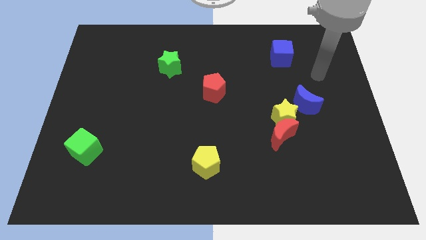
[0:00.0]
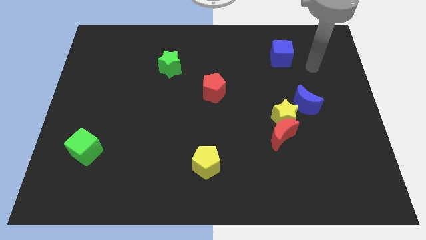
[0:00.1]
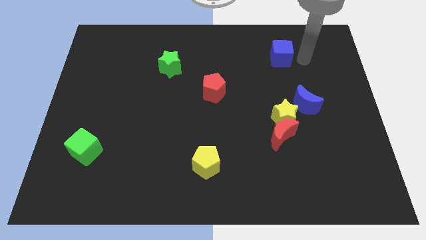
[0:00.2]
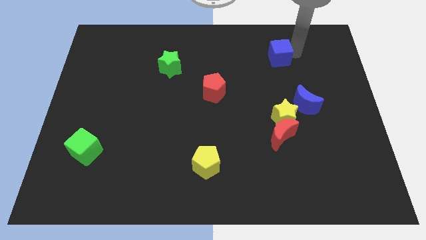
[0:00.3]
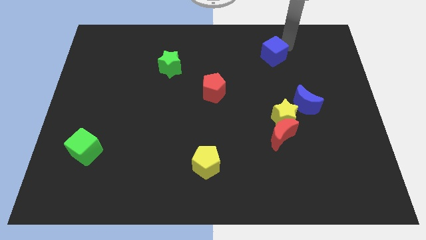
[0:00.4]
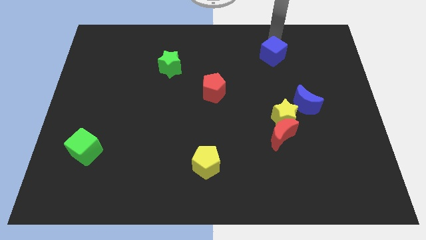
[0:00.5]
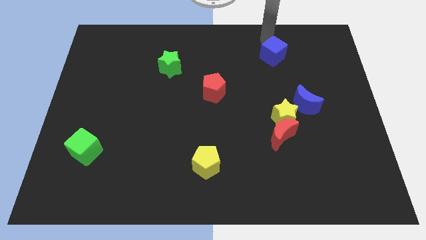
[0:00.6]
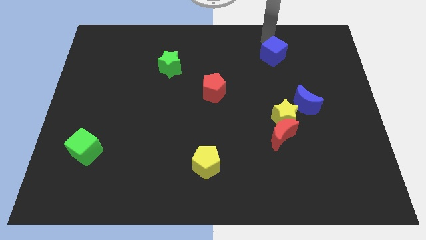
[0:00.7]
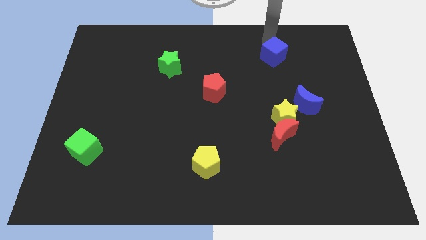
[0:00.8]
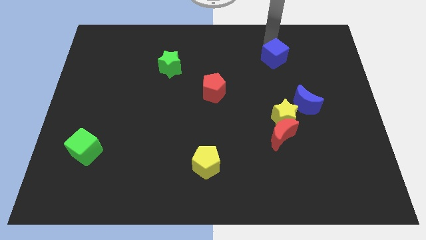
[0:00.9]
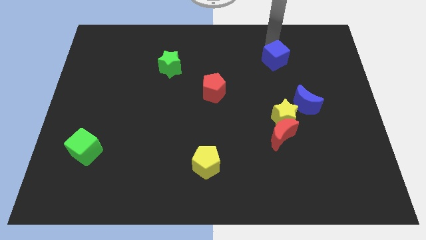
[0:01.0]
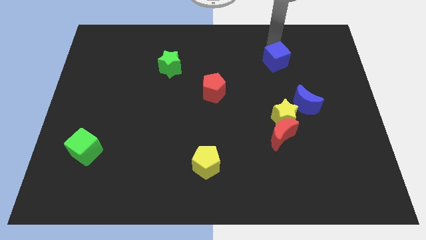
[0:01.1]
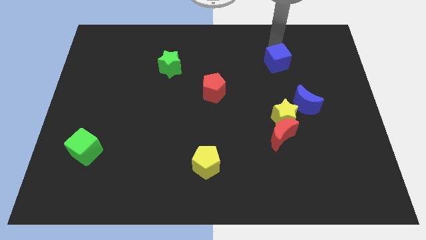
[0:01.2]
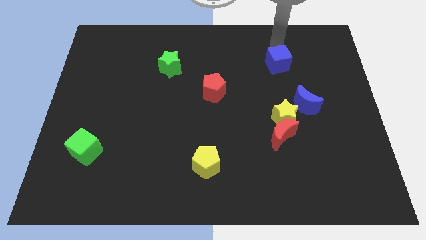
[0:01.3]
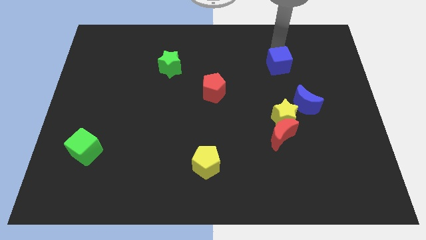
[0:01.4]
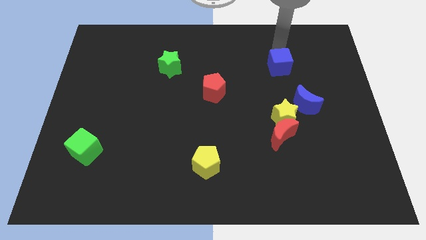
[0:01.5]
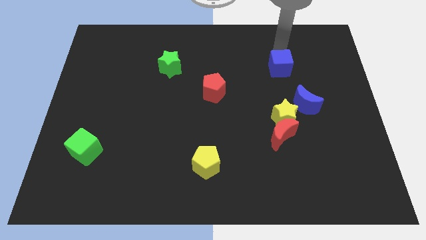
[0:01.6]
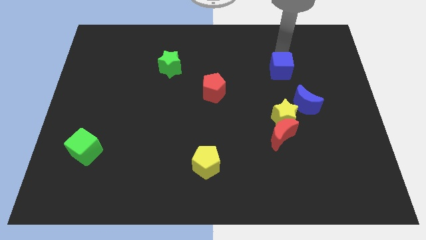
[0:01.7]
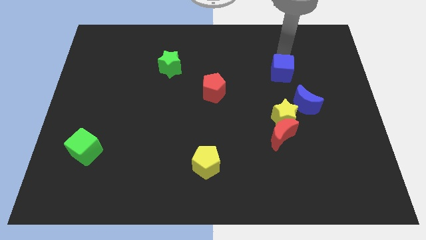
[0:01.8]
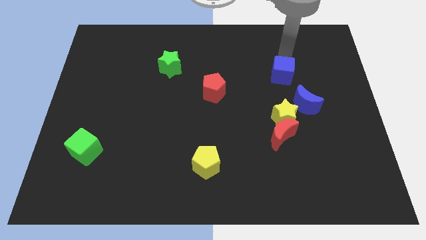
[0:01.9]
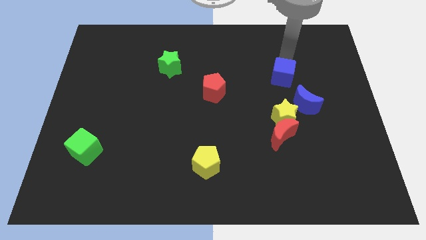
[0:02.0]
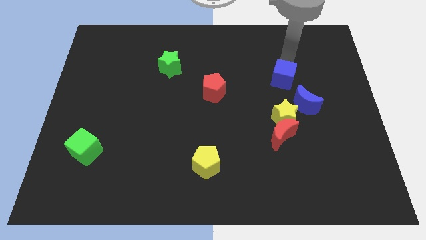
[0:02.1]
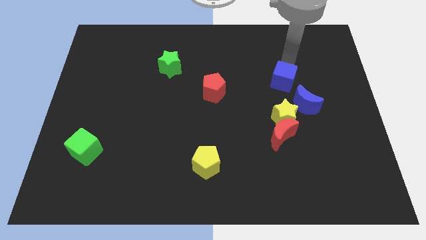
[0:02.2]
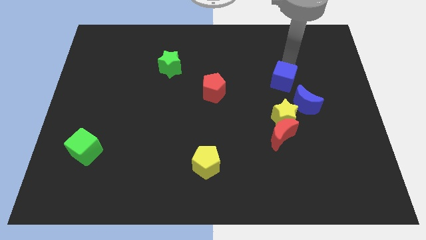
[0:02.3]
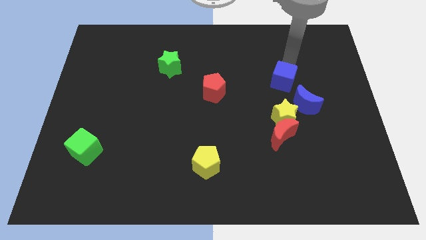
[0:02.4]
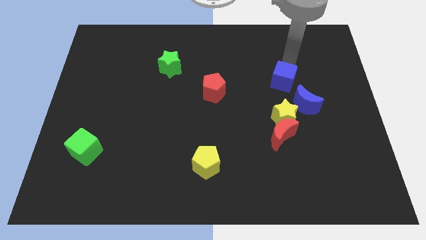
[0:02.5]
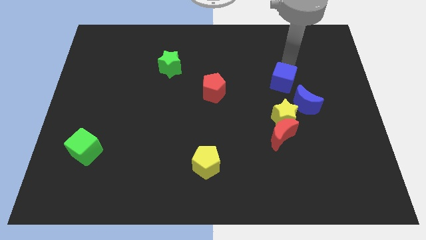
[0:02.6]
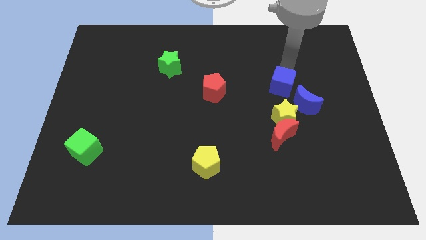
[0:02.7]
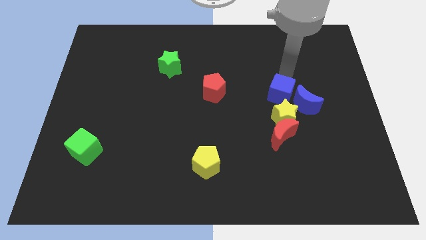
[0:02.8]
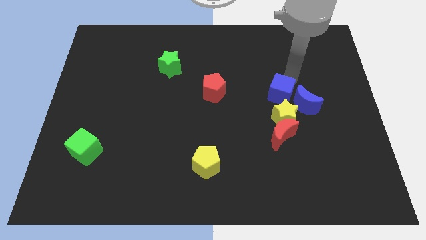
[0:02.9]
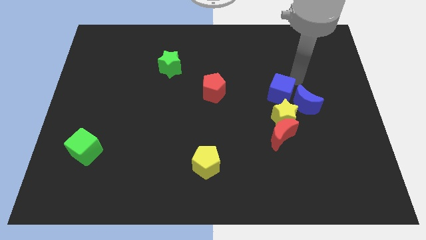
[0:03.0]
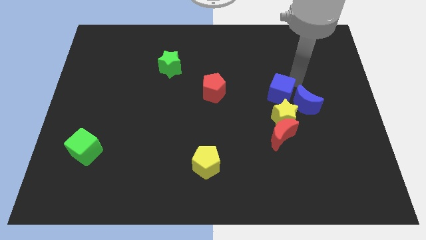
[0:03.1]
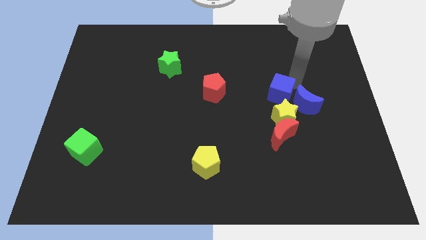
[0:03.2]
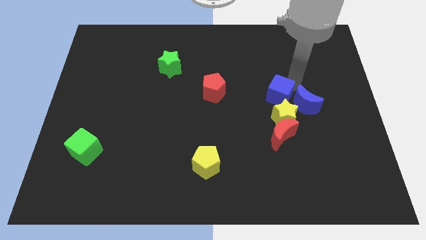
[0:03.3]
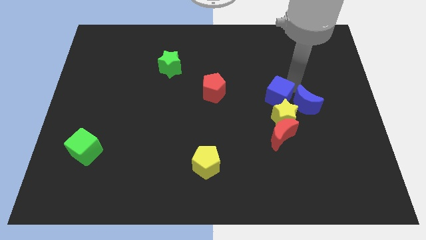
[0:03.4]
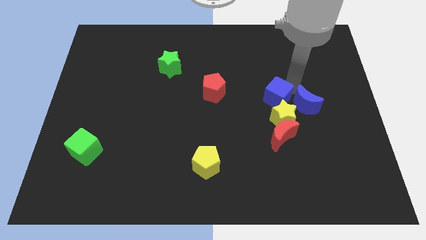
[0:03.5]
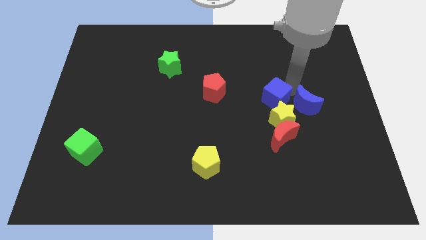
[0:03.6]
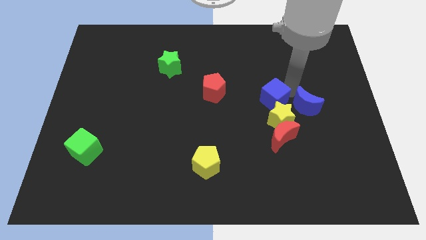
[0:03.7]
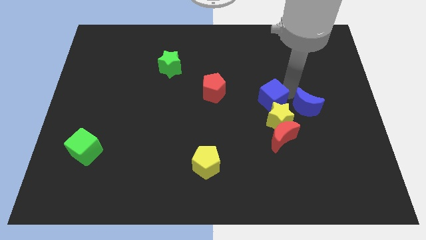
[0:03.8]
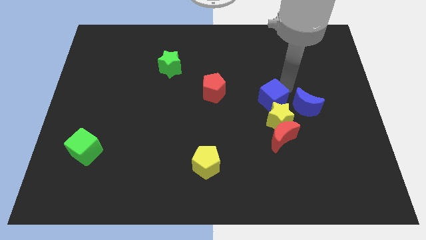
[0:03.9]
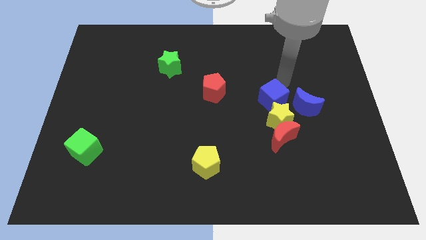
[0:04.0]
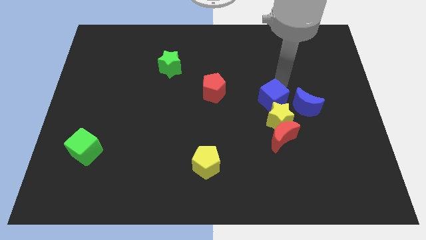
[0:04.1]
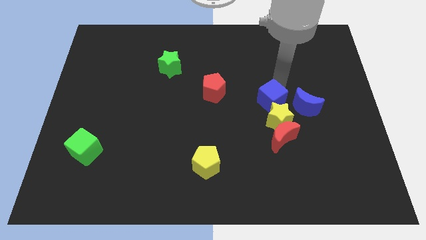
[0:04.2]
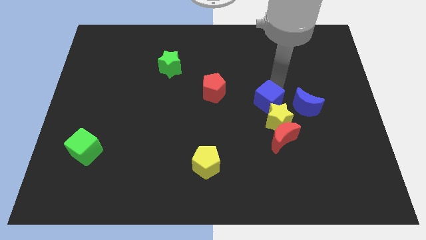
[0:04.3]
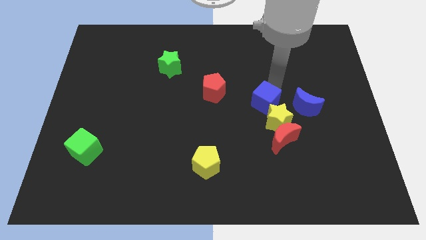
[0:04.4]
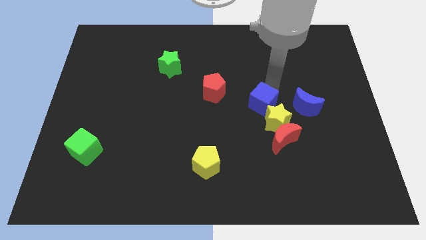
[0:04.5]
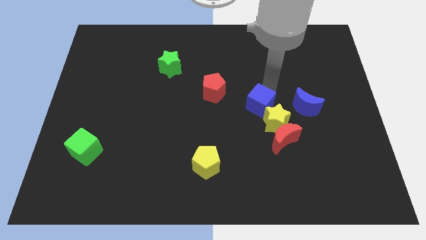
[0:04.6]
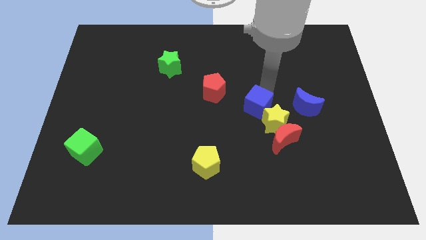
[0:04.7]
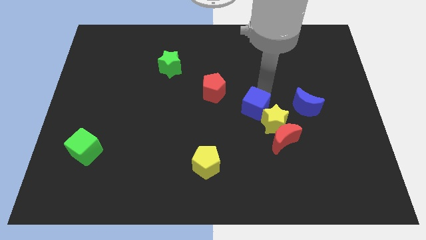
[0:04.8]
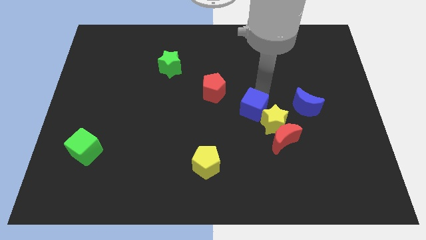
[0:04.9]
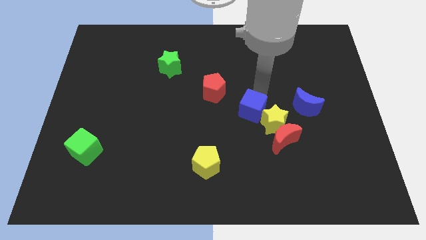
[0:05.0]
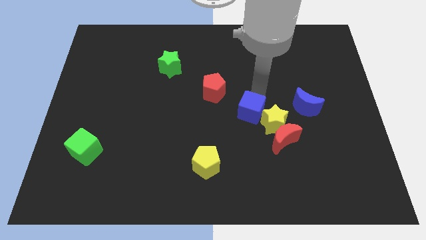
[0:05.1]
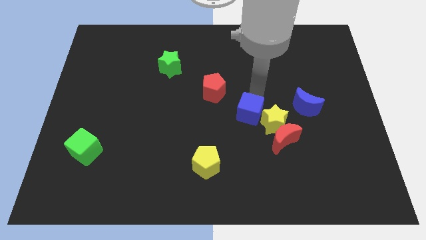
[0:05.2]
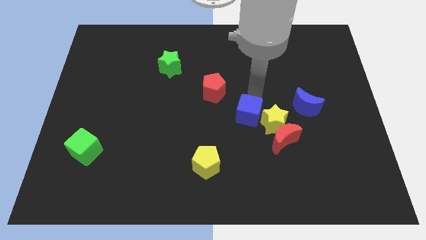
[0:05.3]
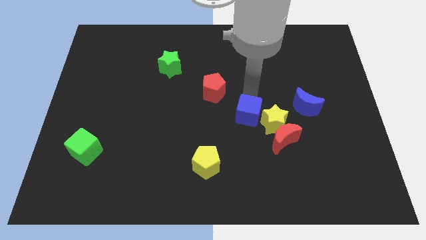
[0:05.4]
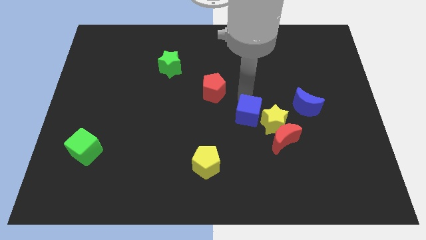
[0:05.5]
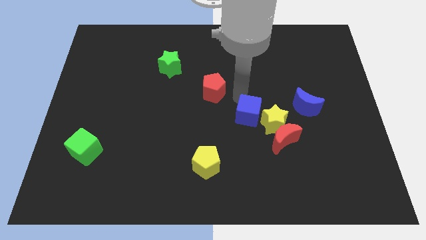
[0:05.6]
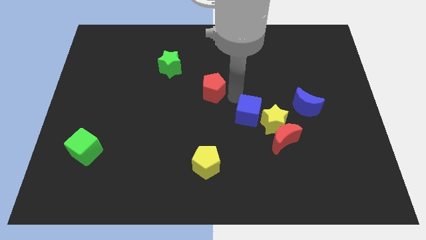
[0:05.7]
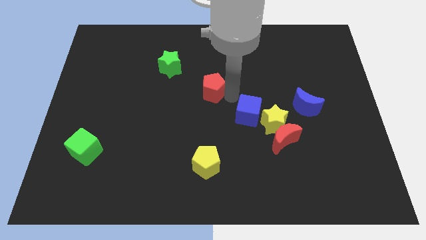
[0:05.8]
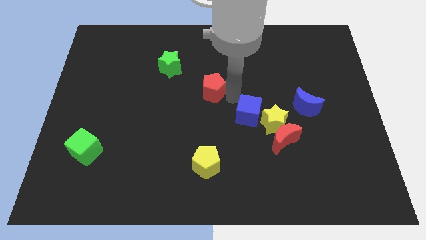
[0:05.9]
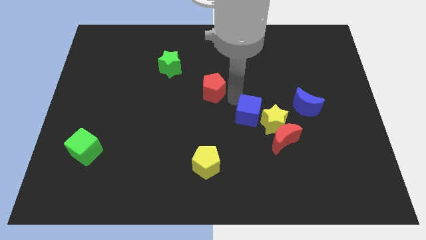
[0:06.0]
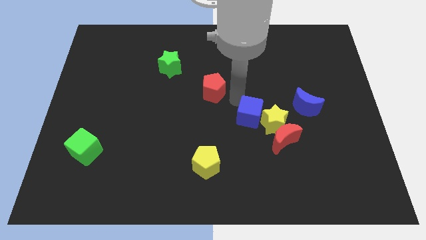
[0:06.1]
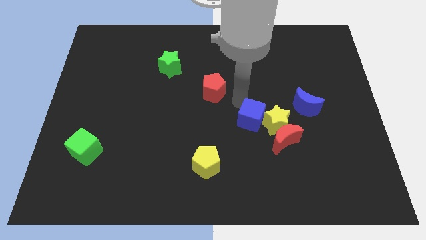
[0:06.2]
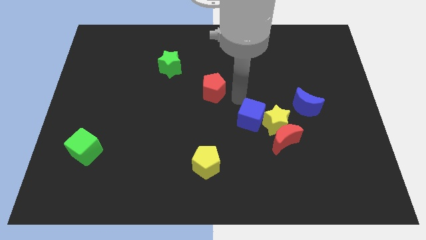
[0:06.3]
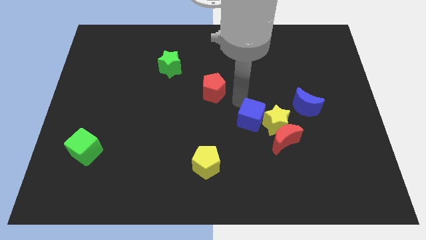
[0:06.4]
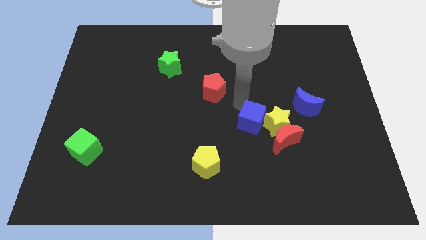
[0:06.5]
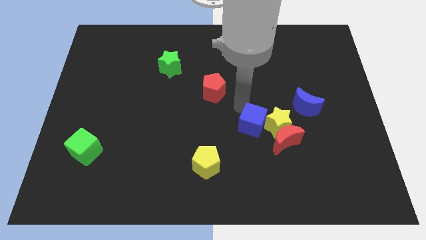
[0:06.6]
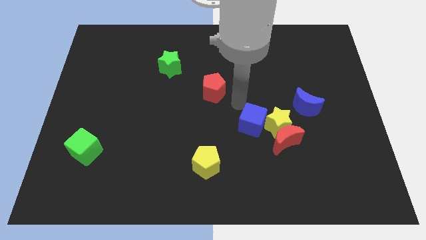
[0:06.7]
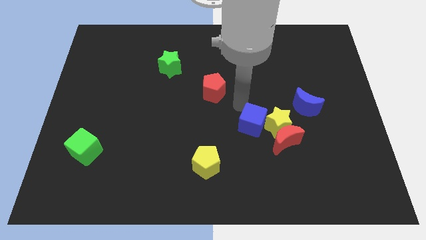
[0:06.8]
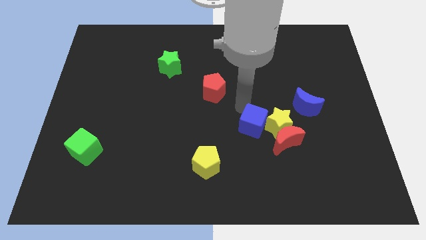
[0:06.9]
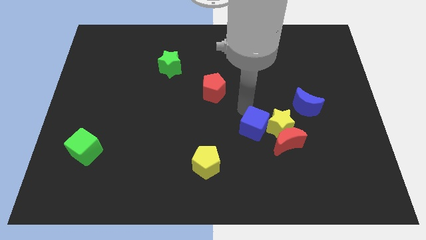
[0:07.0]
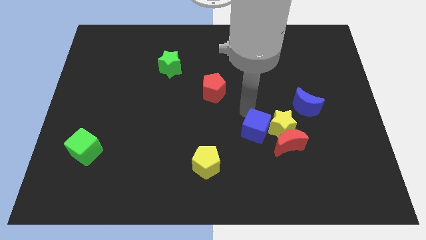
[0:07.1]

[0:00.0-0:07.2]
move the blue cube down

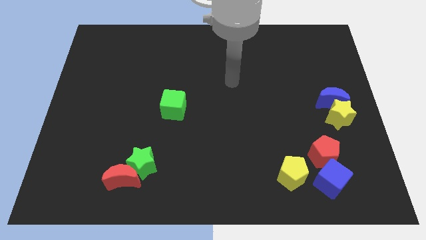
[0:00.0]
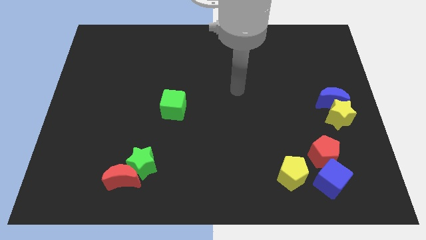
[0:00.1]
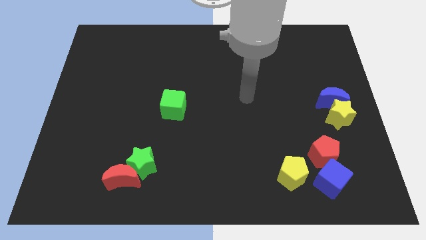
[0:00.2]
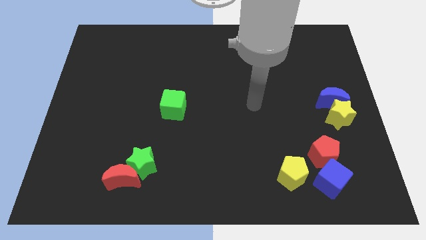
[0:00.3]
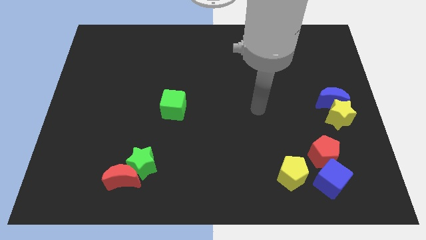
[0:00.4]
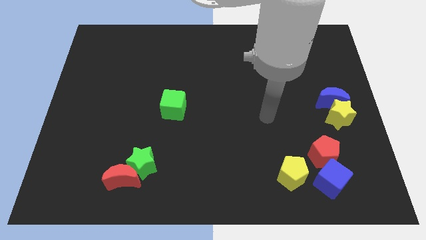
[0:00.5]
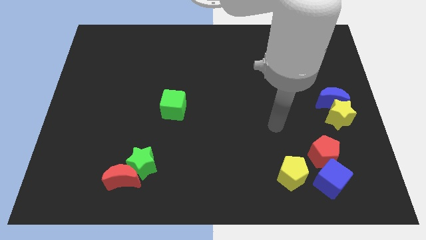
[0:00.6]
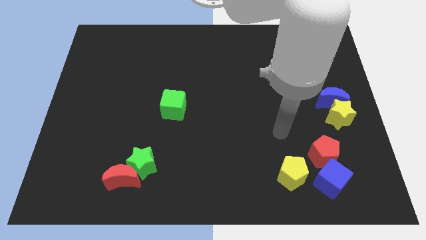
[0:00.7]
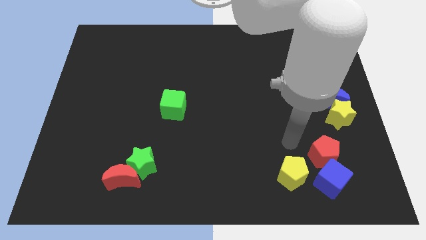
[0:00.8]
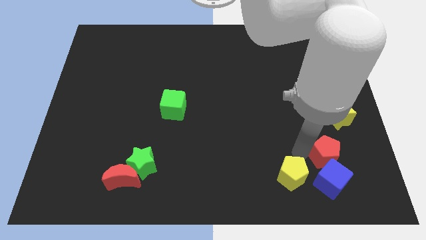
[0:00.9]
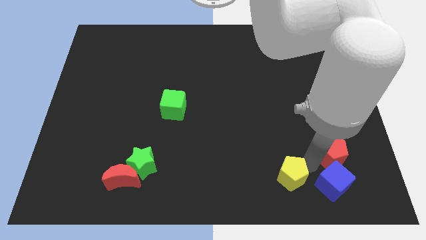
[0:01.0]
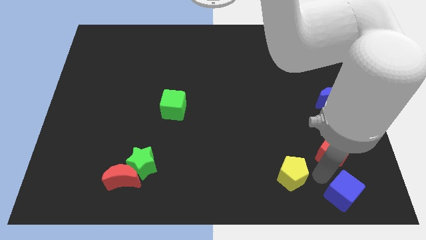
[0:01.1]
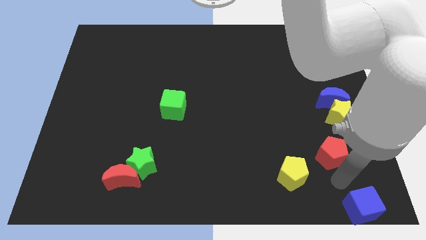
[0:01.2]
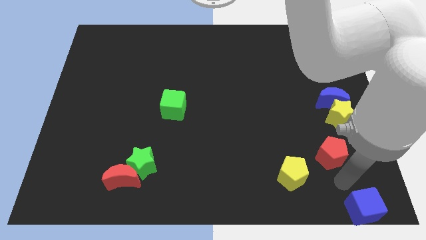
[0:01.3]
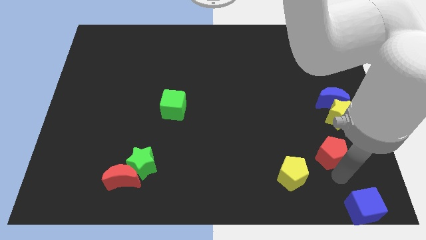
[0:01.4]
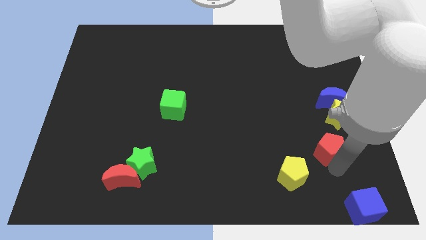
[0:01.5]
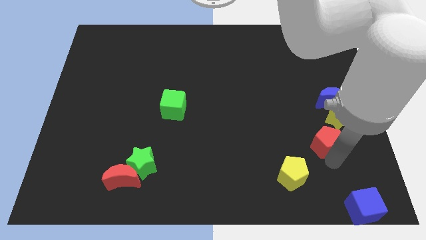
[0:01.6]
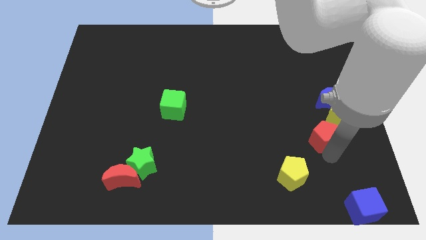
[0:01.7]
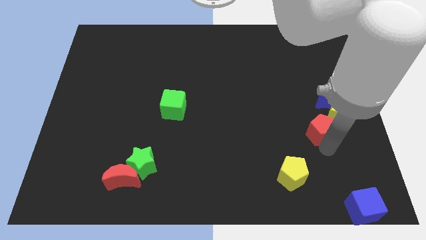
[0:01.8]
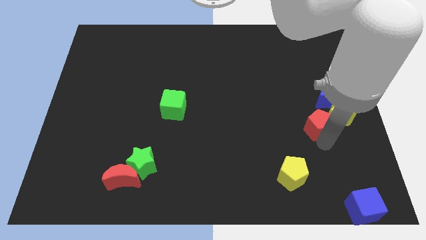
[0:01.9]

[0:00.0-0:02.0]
slide the red pentagon upwards a little
